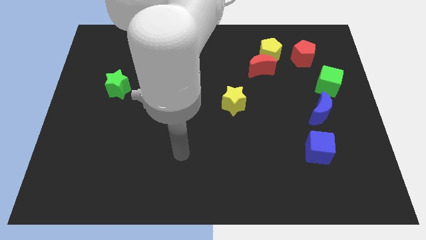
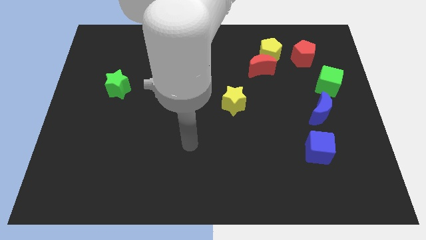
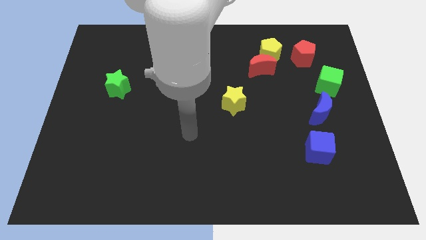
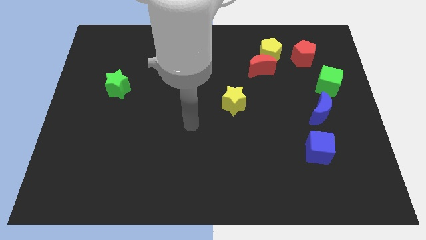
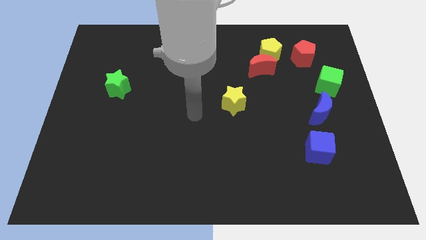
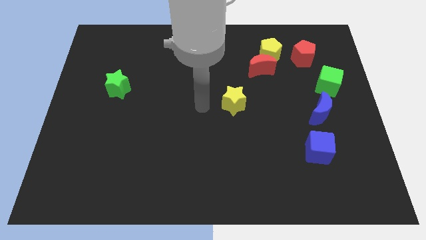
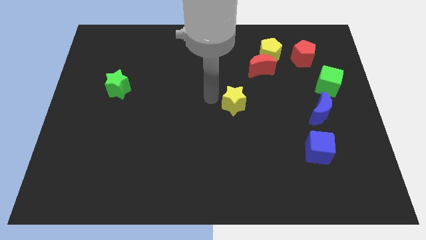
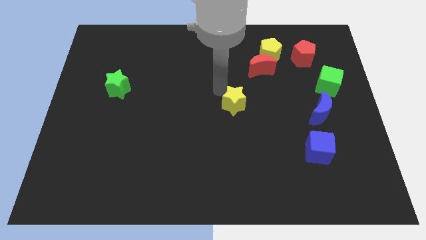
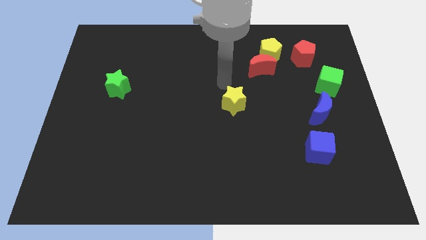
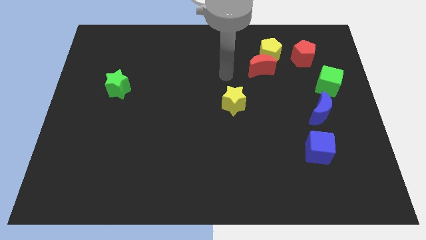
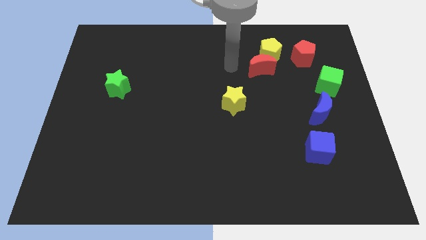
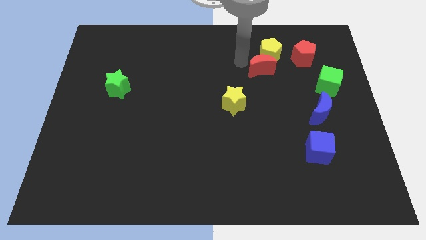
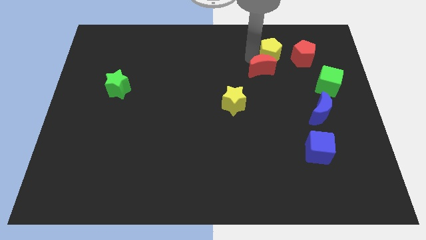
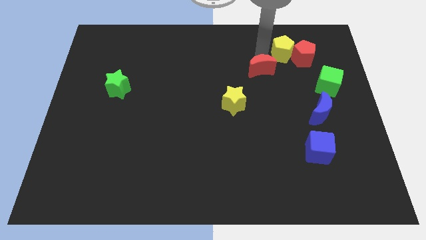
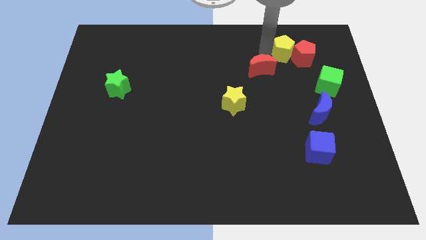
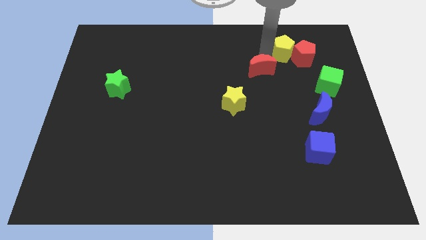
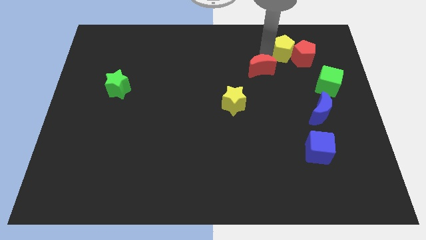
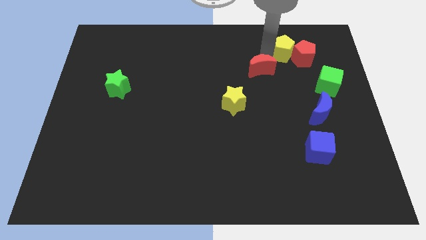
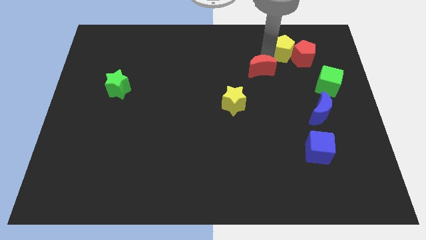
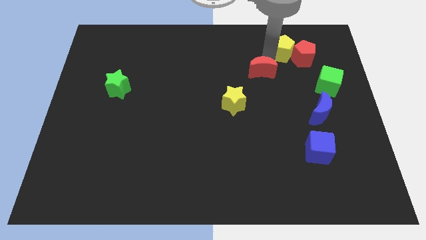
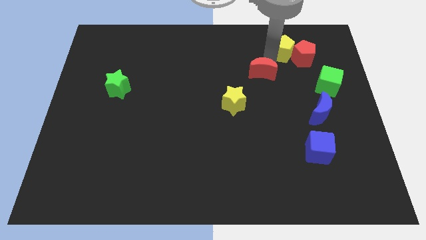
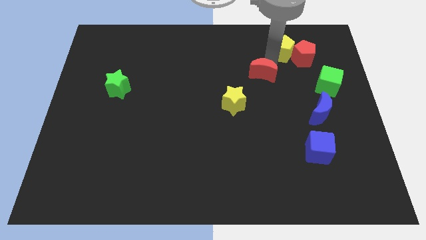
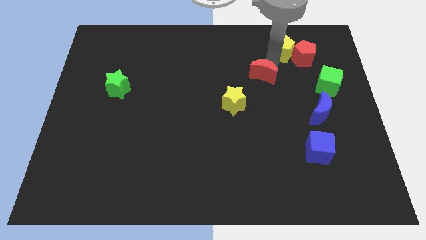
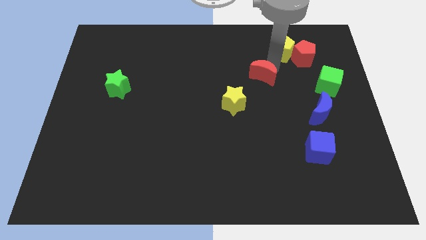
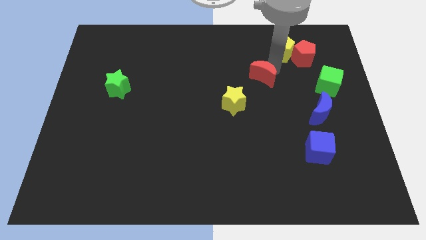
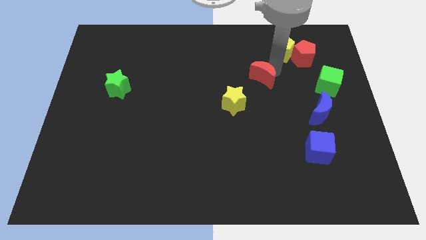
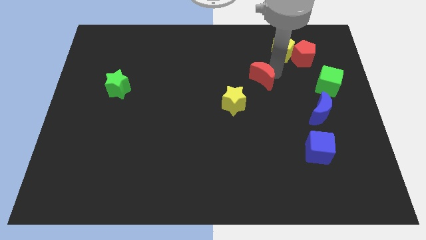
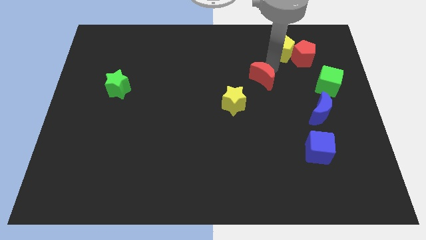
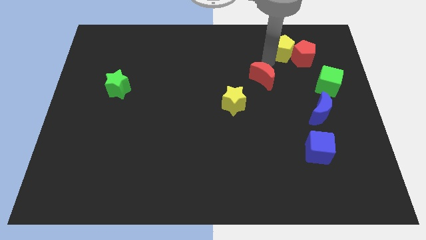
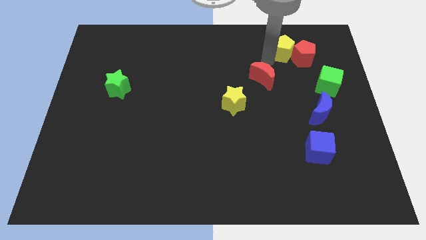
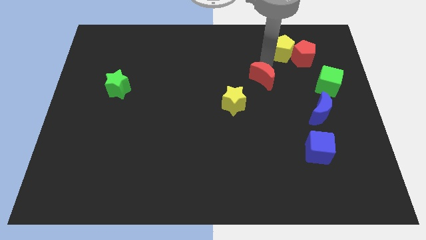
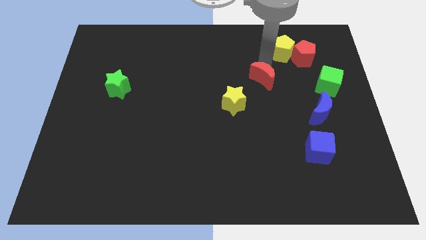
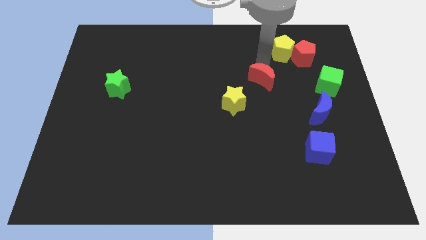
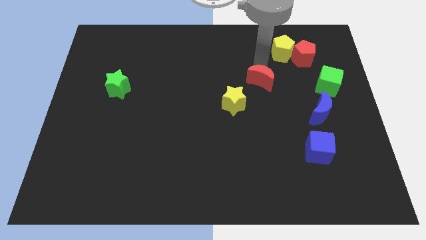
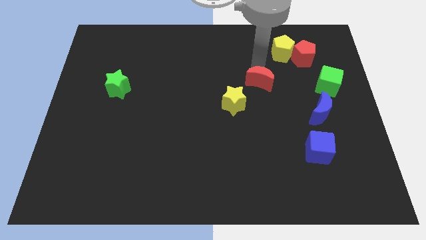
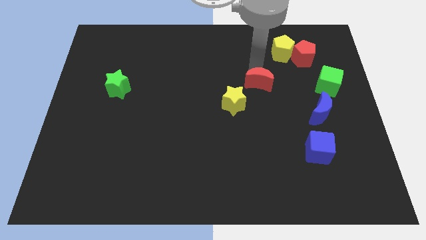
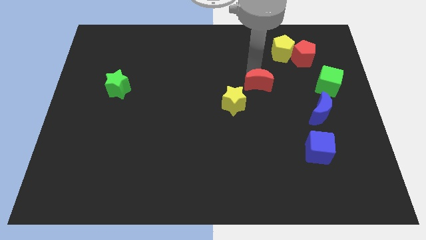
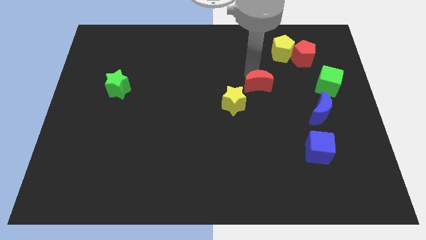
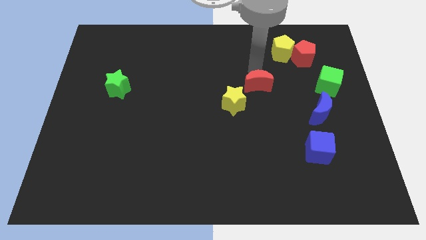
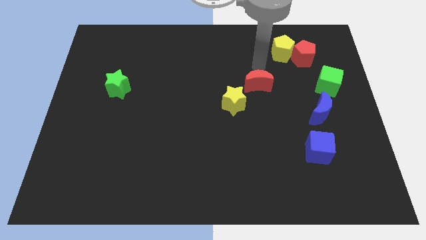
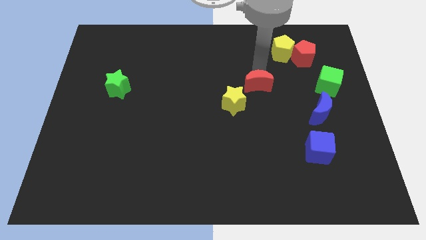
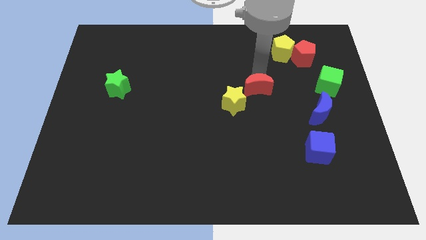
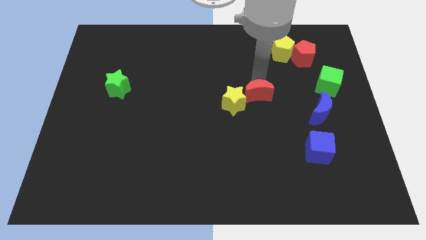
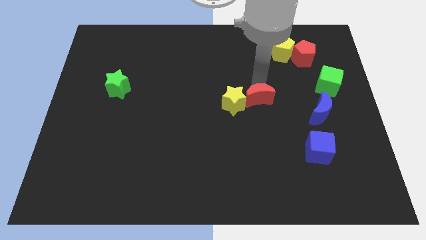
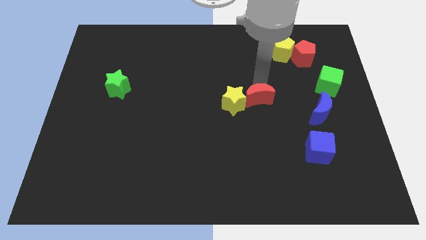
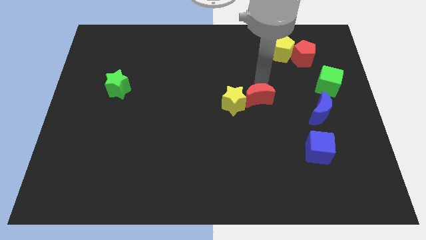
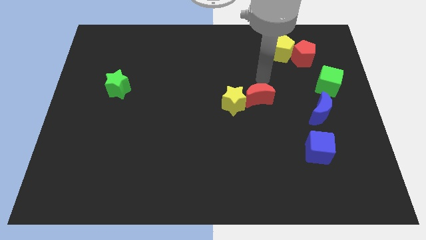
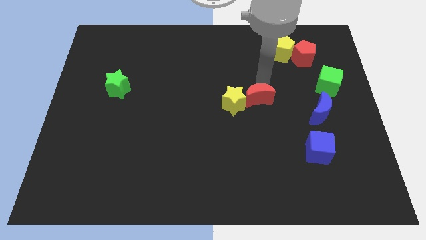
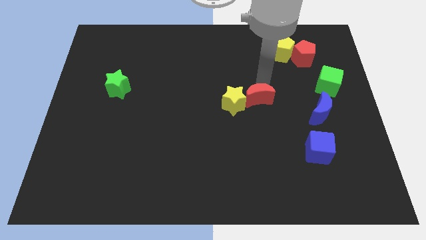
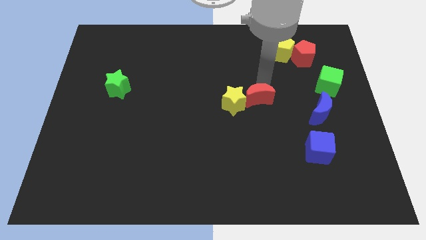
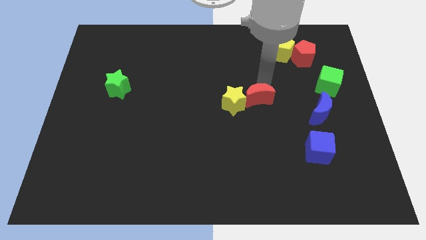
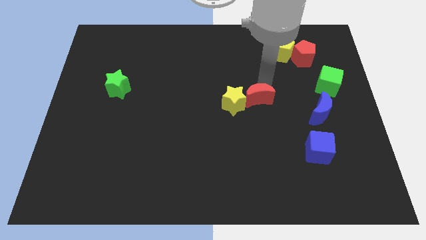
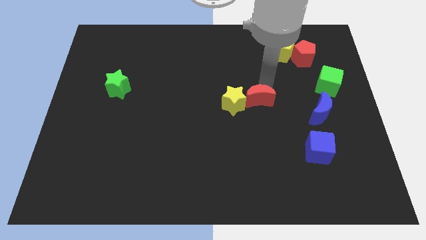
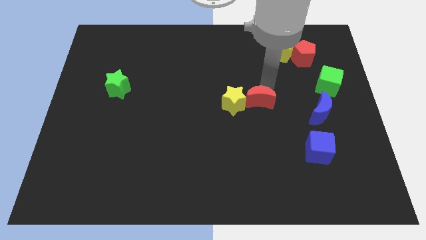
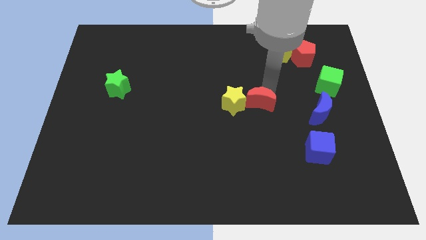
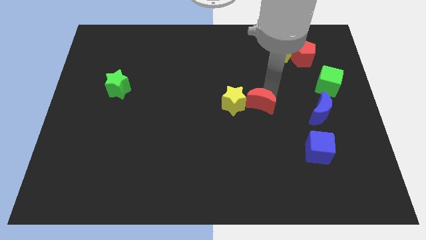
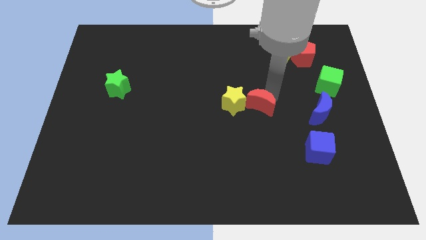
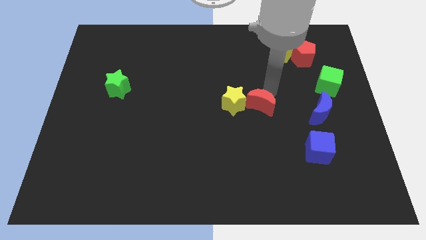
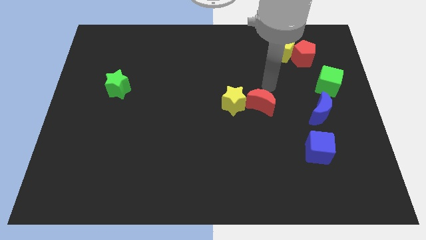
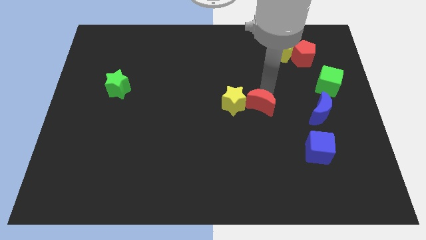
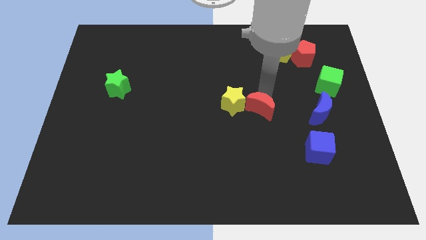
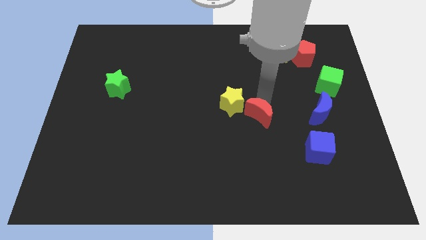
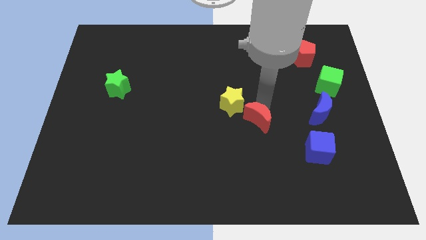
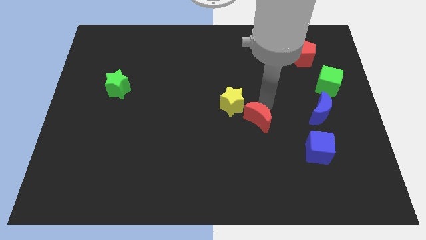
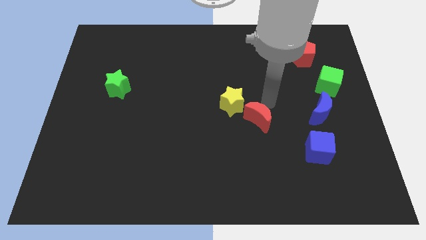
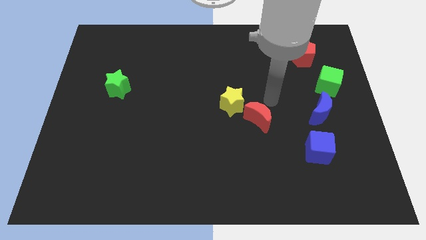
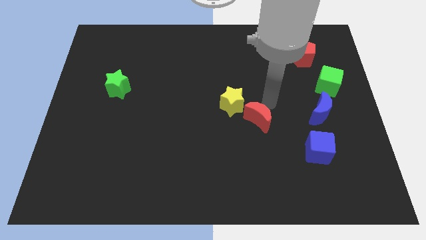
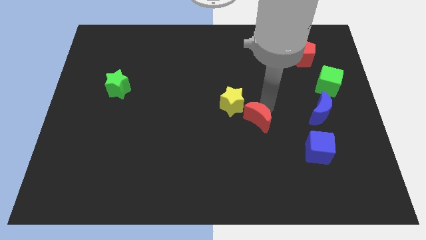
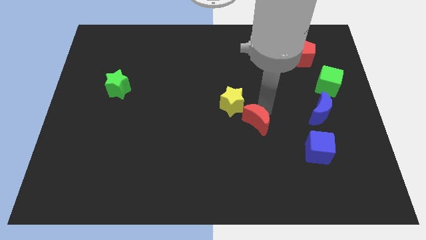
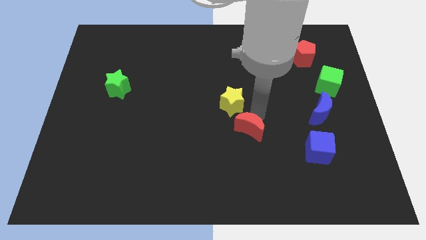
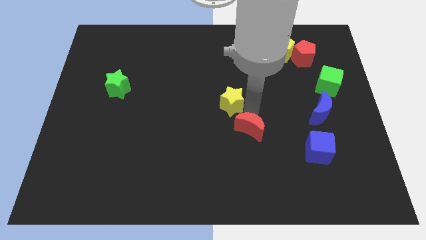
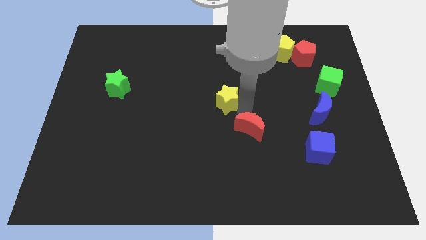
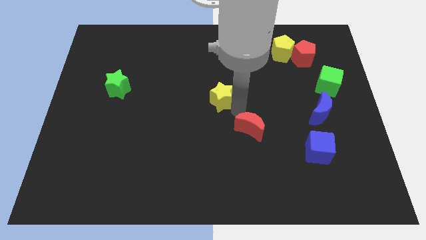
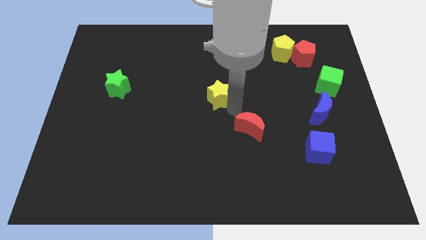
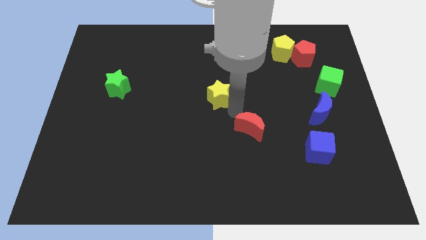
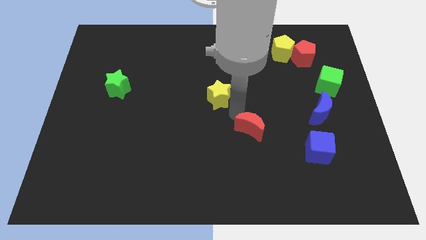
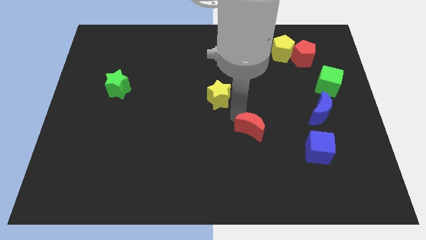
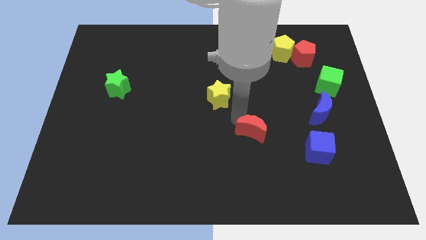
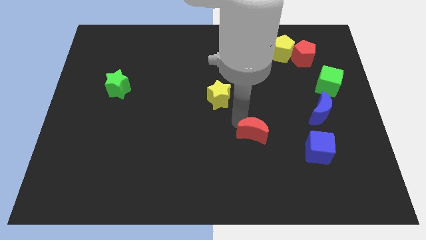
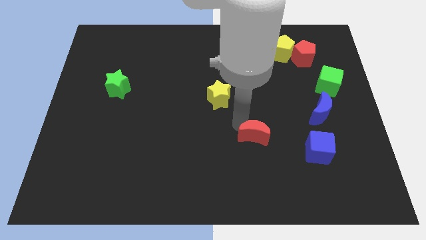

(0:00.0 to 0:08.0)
move the red moon to the left side of the blue cube
